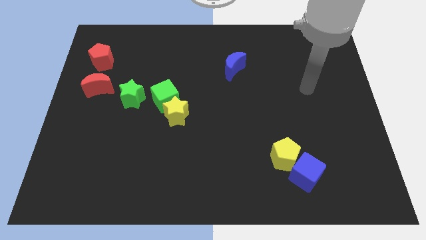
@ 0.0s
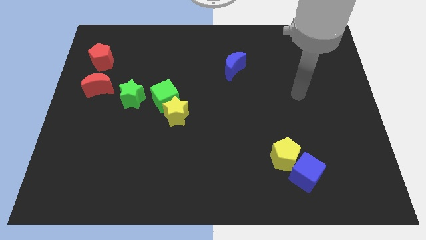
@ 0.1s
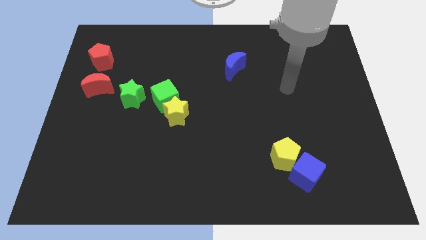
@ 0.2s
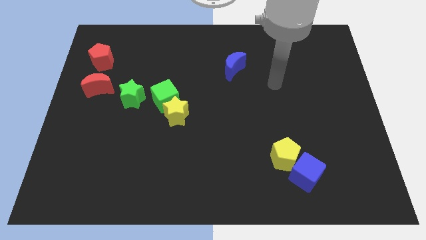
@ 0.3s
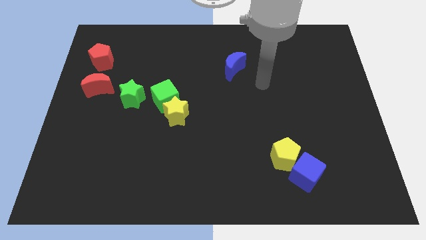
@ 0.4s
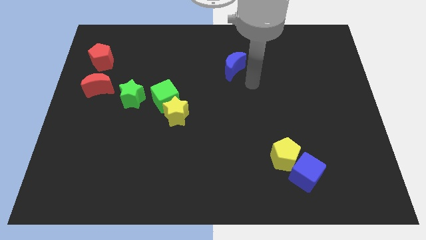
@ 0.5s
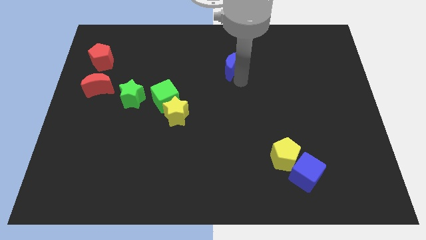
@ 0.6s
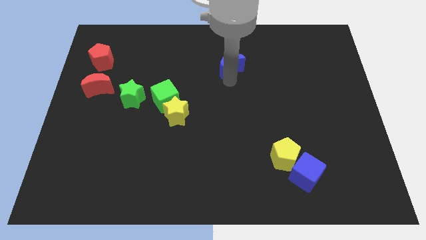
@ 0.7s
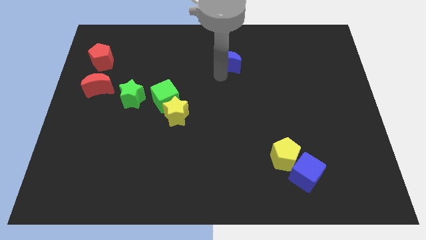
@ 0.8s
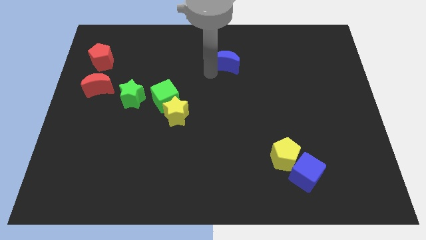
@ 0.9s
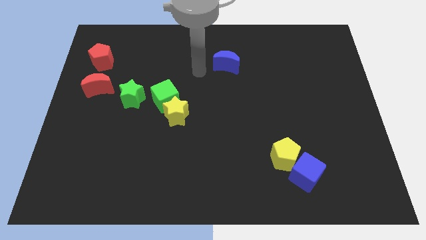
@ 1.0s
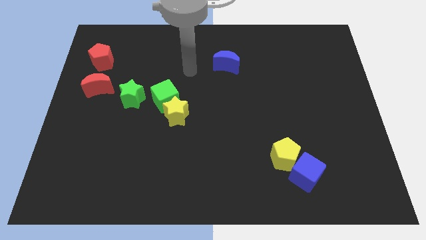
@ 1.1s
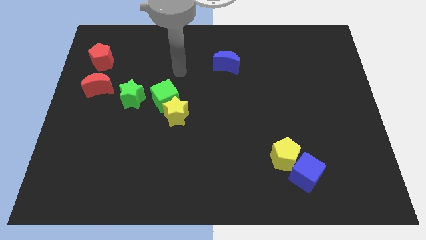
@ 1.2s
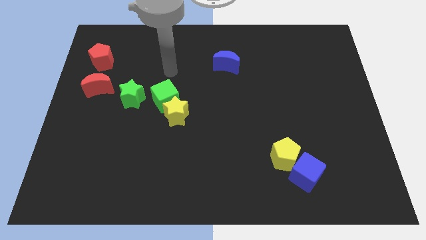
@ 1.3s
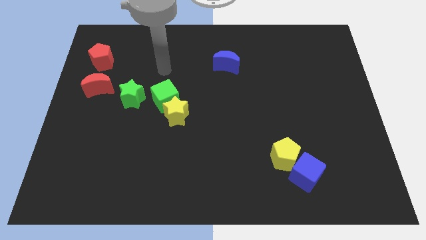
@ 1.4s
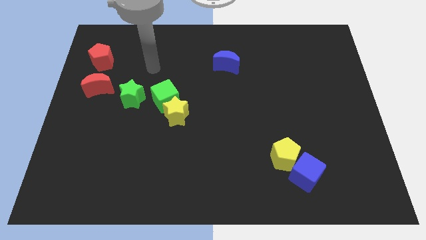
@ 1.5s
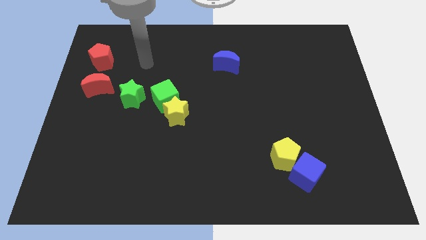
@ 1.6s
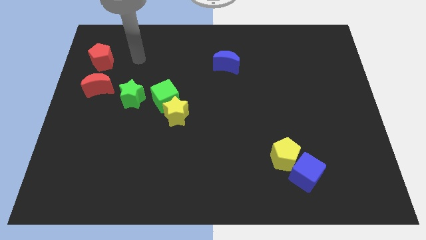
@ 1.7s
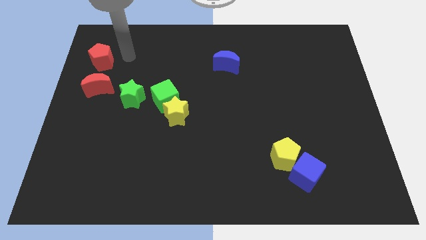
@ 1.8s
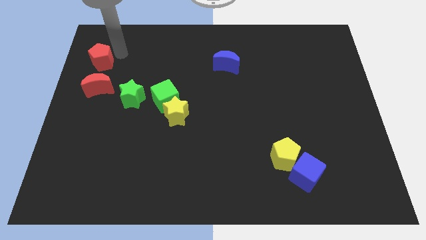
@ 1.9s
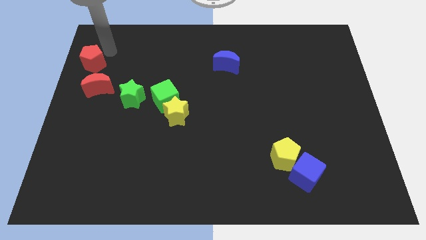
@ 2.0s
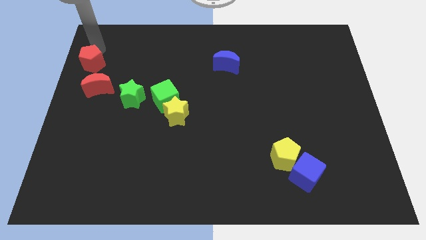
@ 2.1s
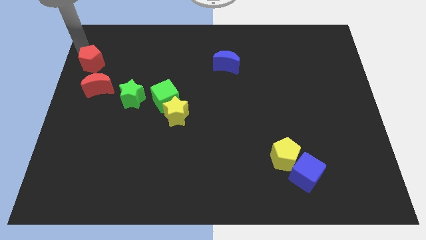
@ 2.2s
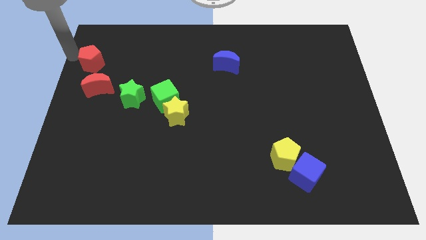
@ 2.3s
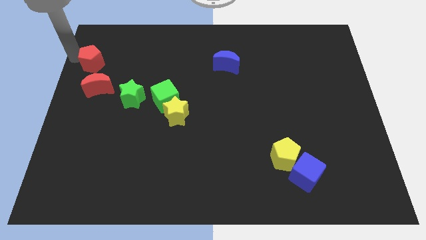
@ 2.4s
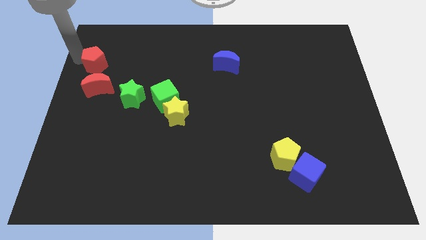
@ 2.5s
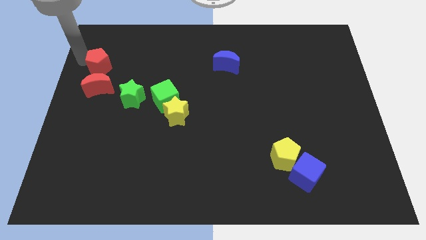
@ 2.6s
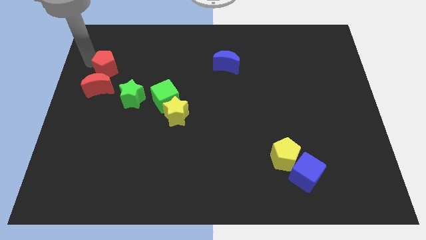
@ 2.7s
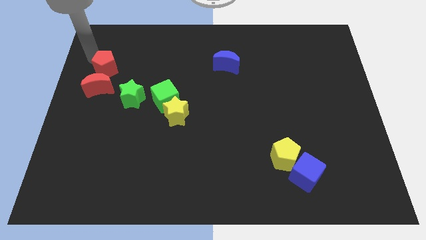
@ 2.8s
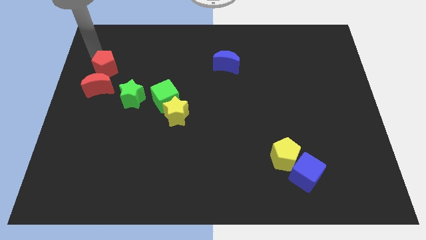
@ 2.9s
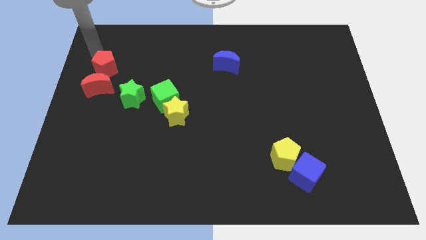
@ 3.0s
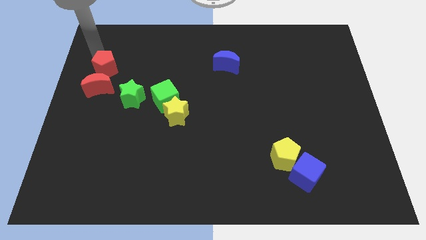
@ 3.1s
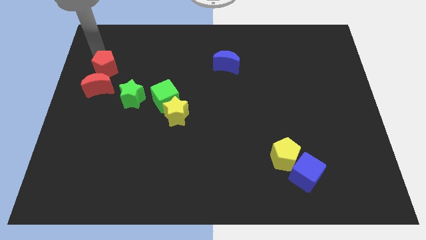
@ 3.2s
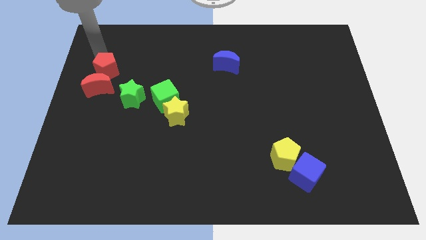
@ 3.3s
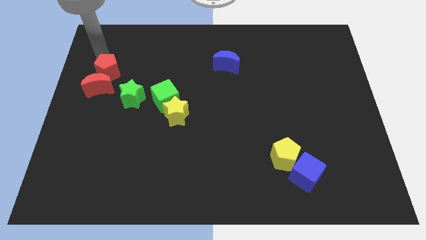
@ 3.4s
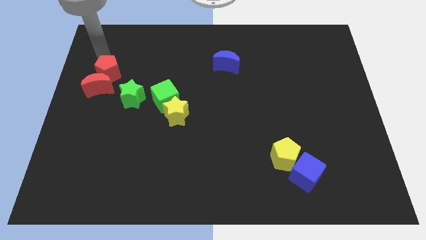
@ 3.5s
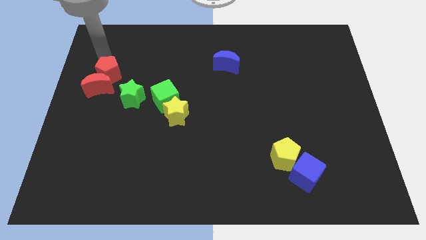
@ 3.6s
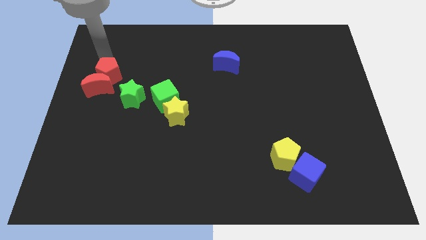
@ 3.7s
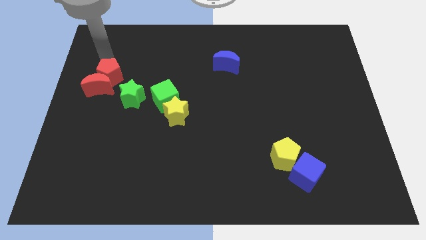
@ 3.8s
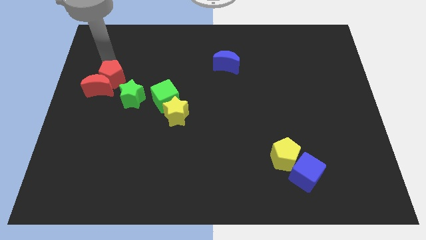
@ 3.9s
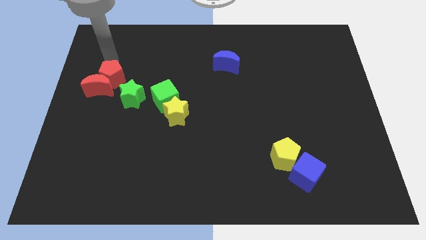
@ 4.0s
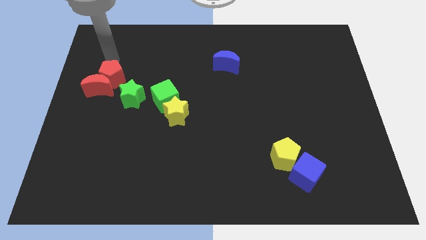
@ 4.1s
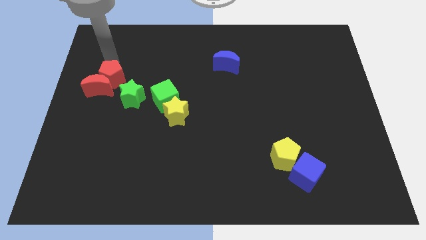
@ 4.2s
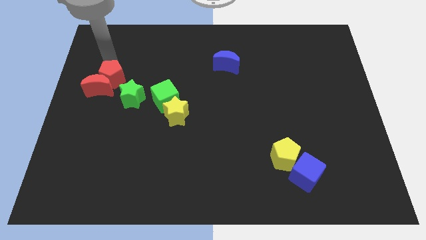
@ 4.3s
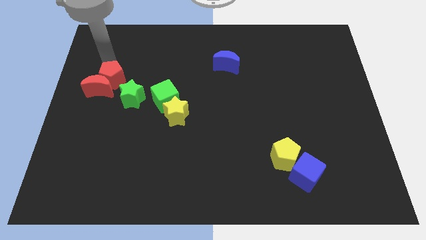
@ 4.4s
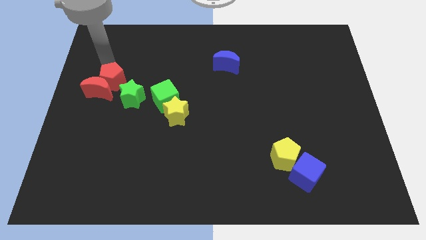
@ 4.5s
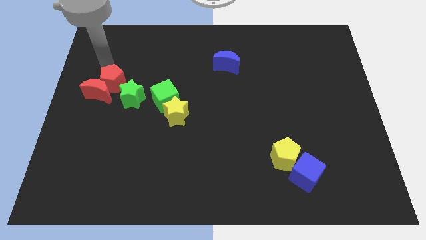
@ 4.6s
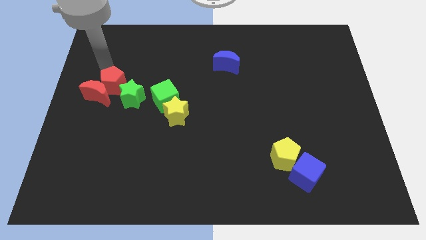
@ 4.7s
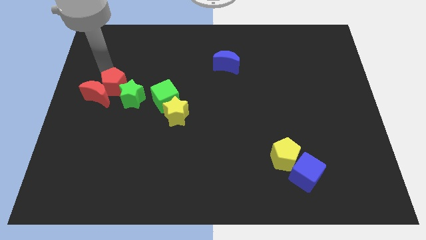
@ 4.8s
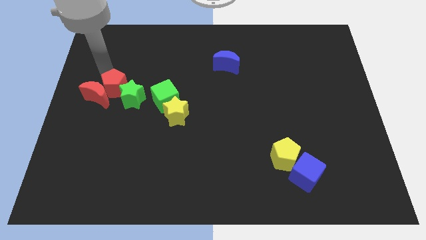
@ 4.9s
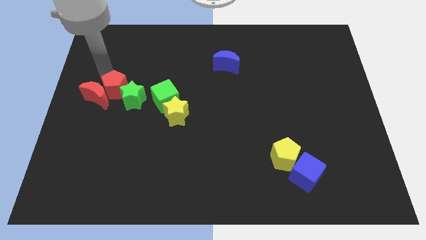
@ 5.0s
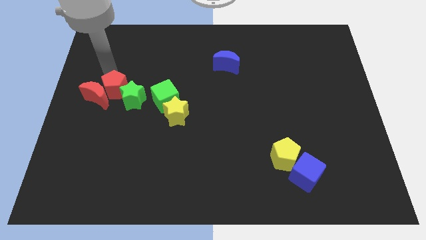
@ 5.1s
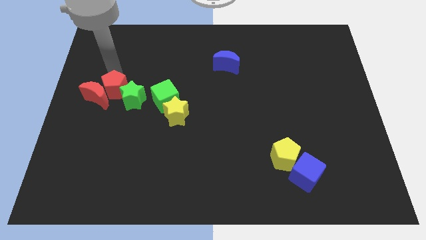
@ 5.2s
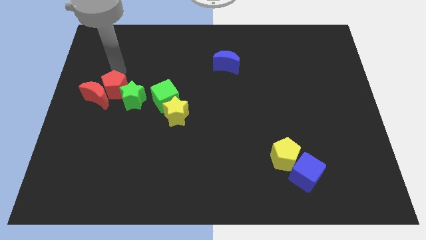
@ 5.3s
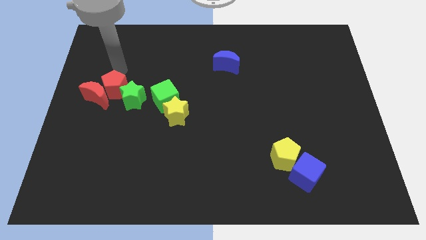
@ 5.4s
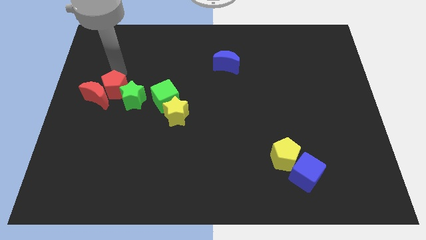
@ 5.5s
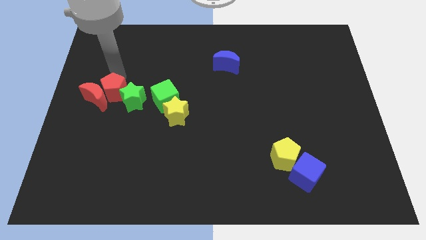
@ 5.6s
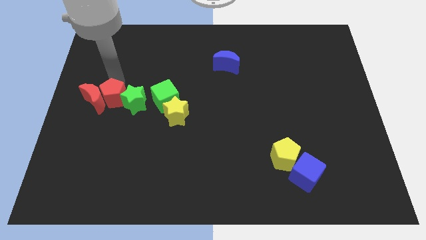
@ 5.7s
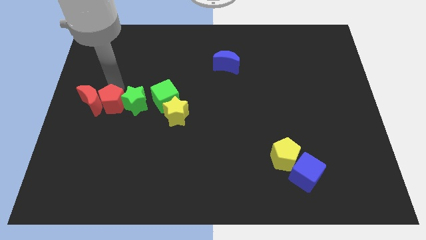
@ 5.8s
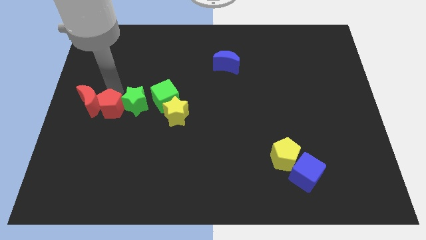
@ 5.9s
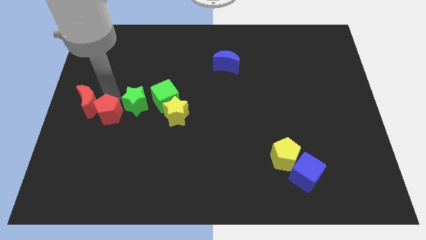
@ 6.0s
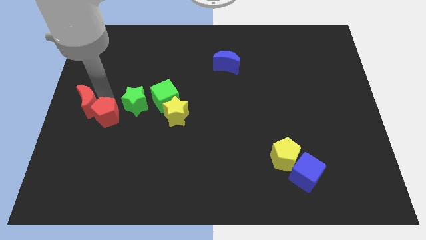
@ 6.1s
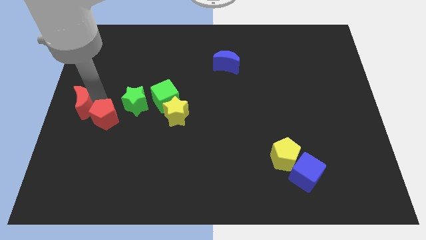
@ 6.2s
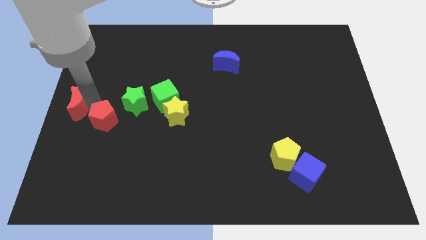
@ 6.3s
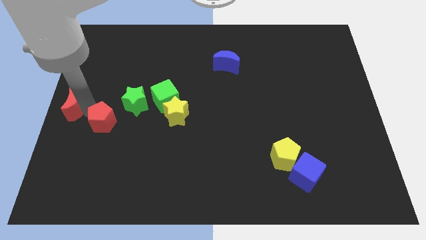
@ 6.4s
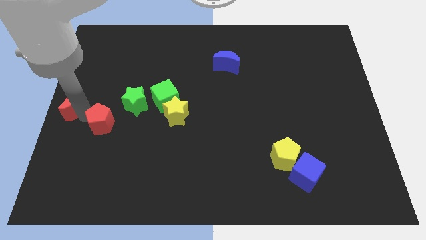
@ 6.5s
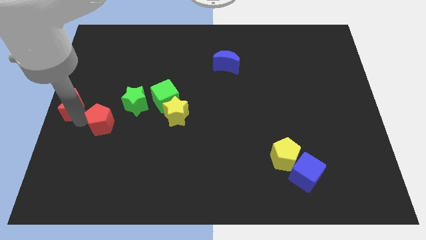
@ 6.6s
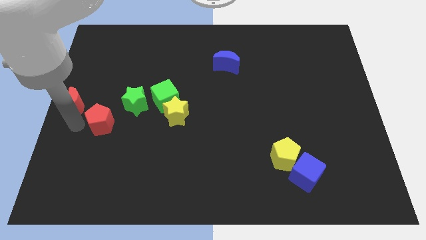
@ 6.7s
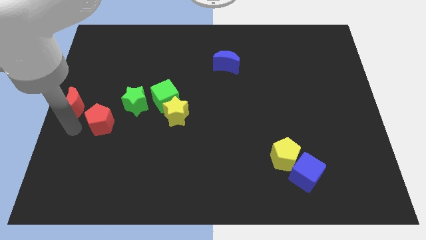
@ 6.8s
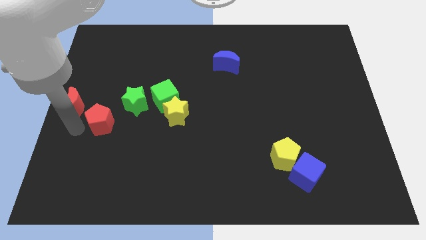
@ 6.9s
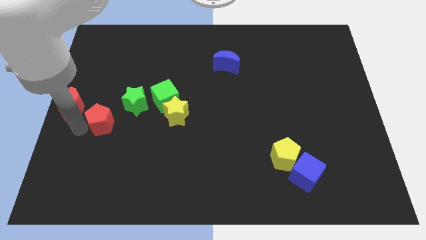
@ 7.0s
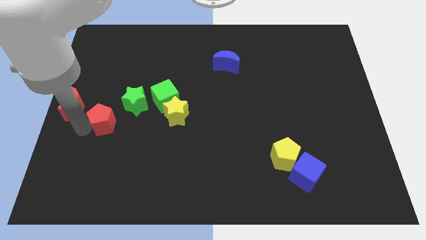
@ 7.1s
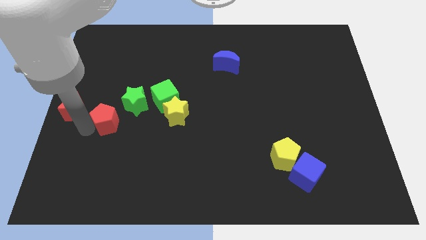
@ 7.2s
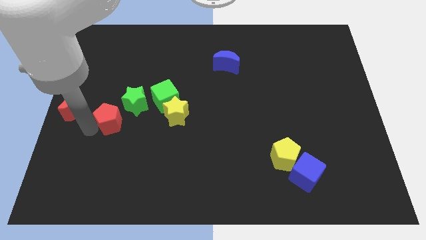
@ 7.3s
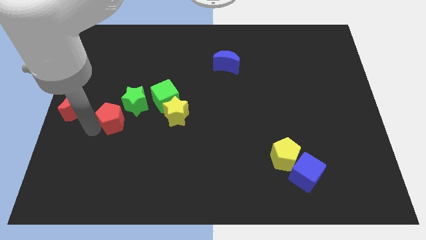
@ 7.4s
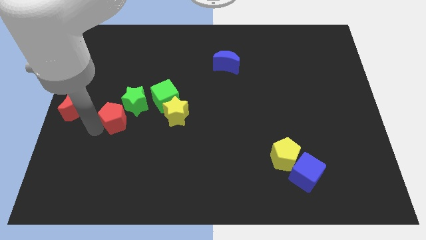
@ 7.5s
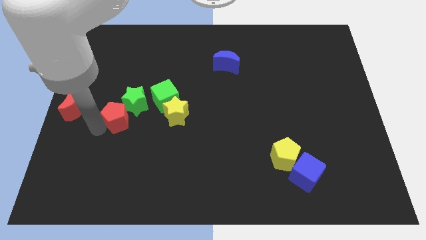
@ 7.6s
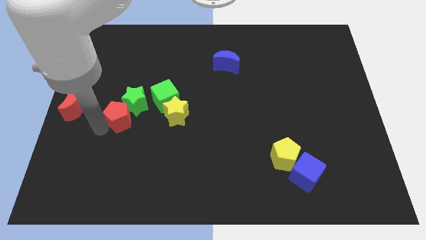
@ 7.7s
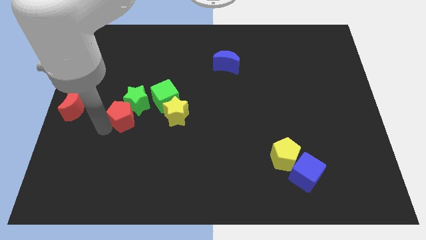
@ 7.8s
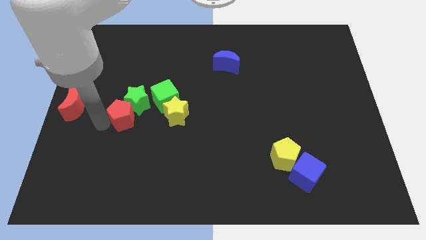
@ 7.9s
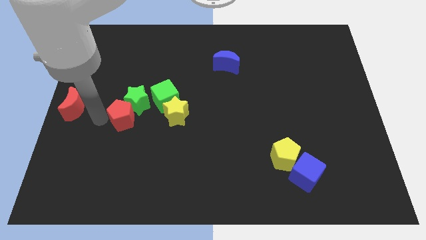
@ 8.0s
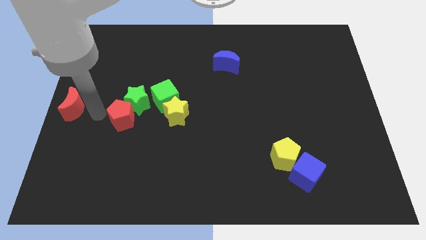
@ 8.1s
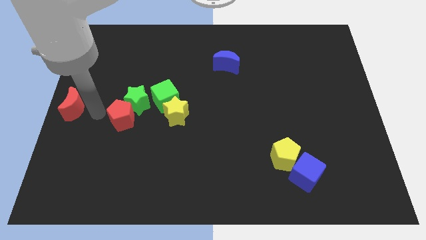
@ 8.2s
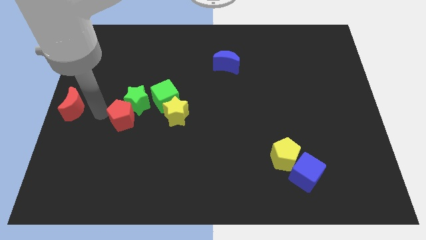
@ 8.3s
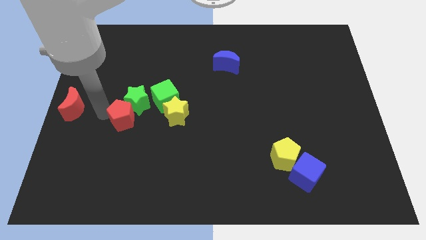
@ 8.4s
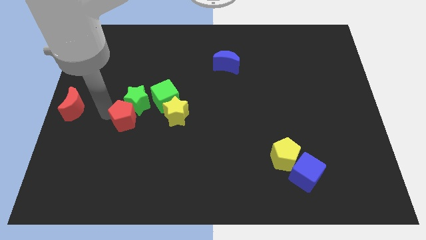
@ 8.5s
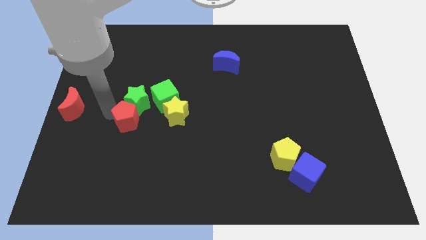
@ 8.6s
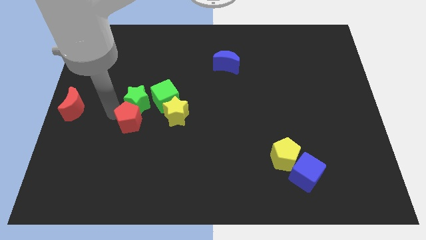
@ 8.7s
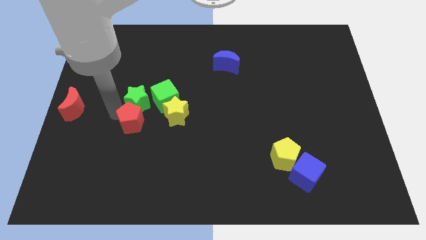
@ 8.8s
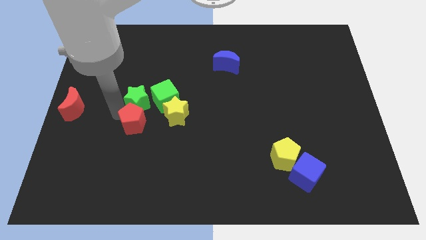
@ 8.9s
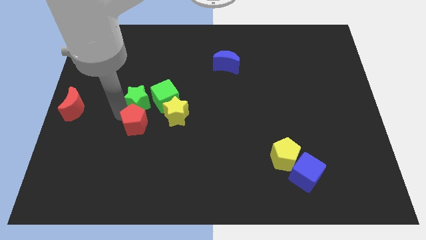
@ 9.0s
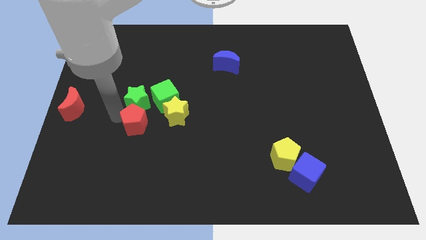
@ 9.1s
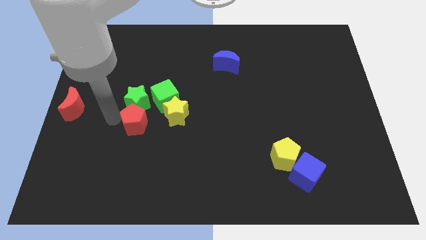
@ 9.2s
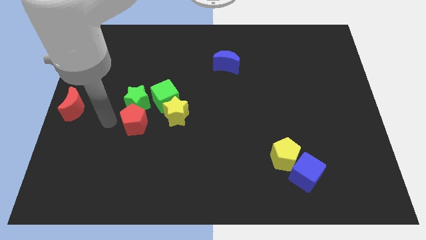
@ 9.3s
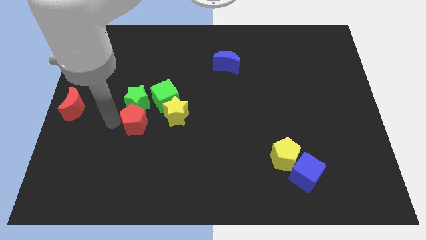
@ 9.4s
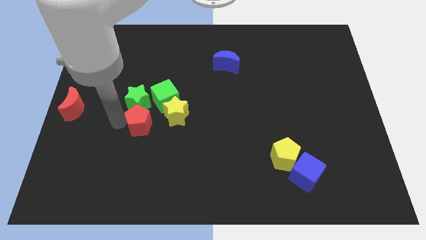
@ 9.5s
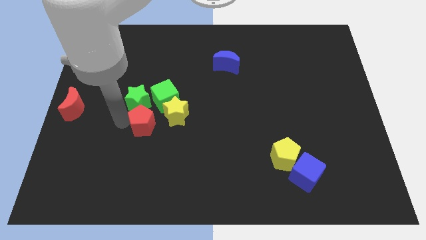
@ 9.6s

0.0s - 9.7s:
slide the red pentagon below the green cube
